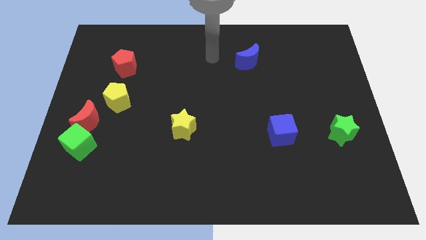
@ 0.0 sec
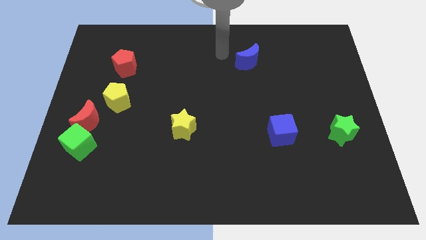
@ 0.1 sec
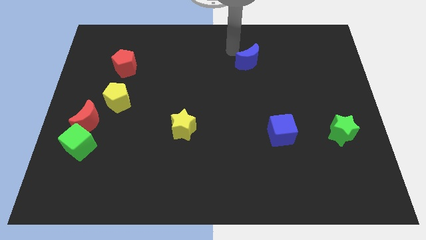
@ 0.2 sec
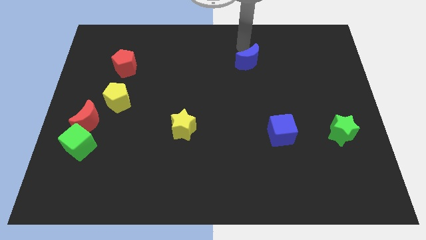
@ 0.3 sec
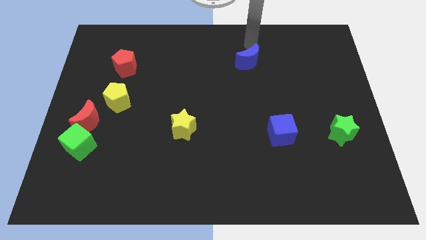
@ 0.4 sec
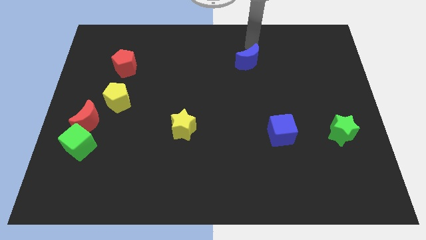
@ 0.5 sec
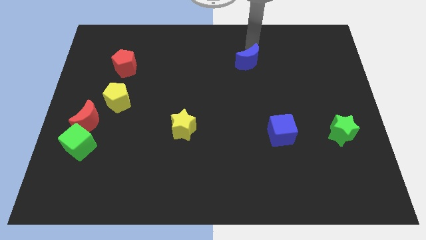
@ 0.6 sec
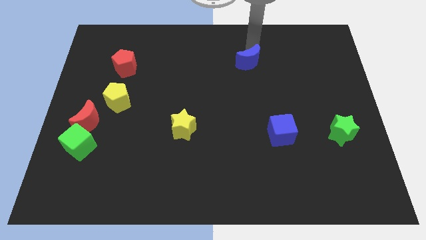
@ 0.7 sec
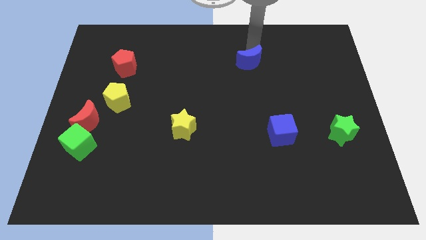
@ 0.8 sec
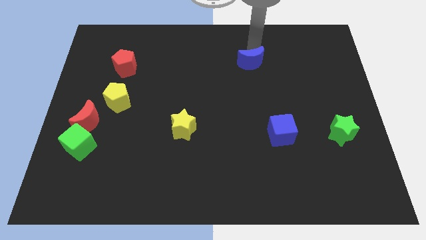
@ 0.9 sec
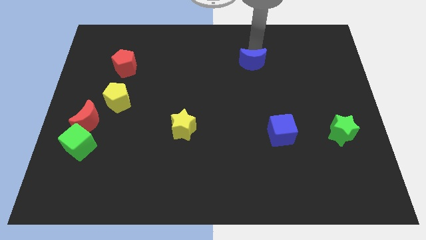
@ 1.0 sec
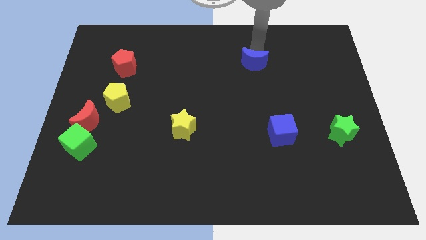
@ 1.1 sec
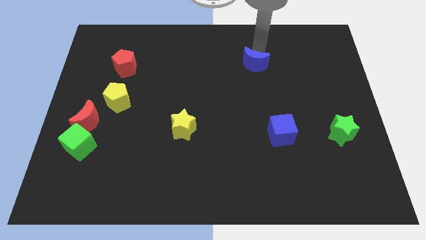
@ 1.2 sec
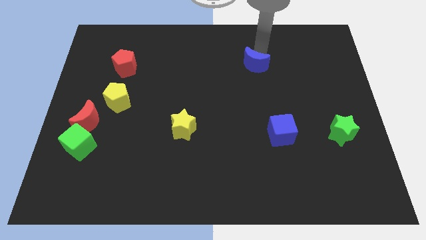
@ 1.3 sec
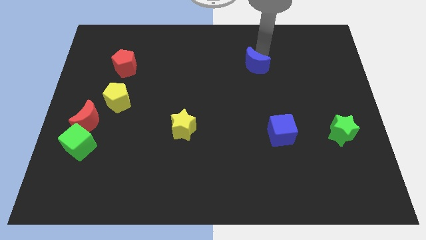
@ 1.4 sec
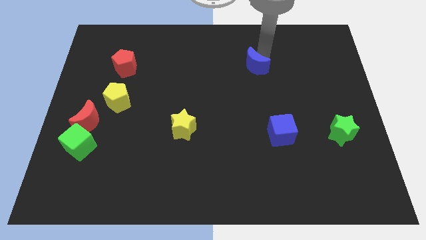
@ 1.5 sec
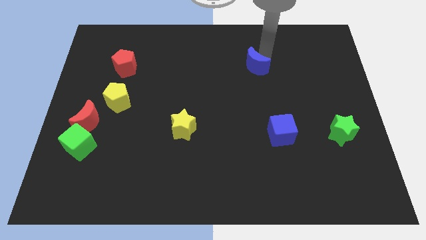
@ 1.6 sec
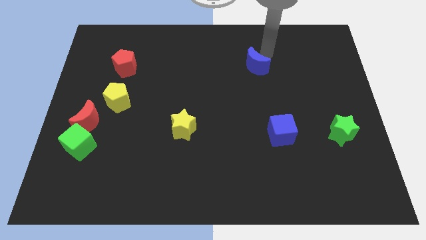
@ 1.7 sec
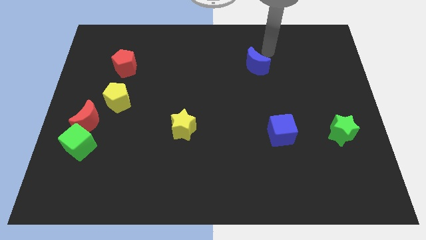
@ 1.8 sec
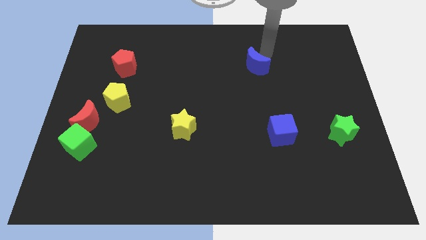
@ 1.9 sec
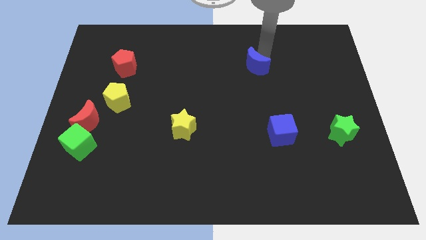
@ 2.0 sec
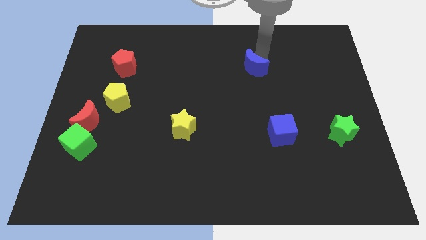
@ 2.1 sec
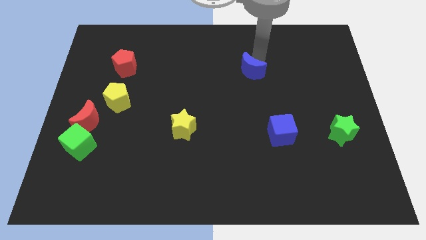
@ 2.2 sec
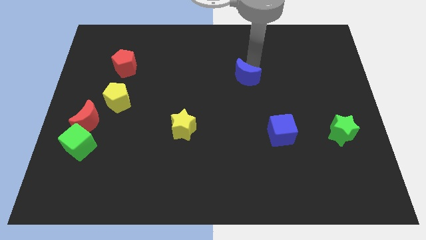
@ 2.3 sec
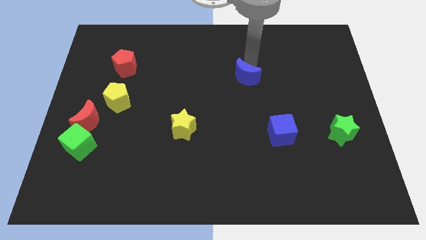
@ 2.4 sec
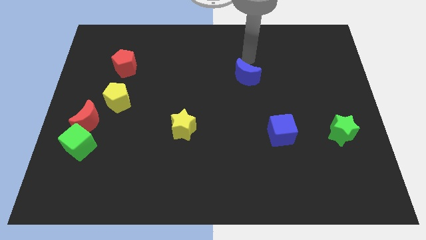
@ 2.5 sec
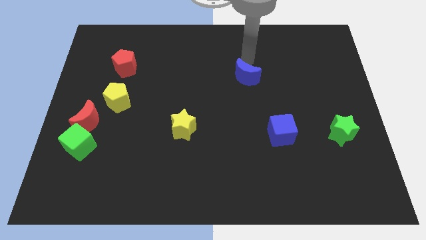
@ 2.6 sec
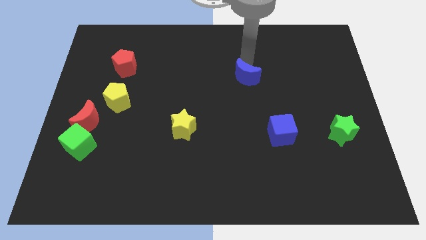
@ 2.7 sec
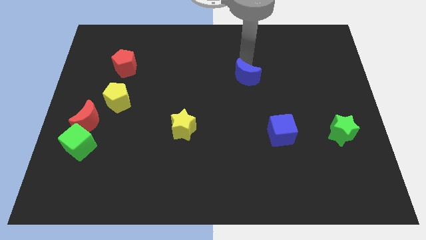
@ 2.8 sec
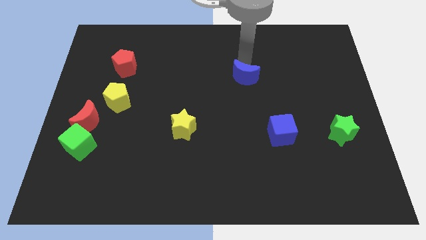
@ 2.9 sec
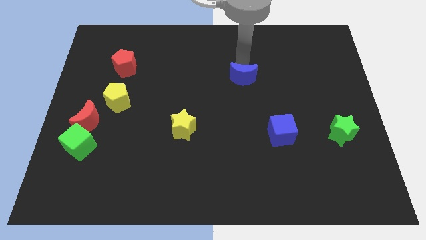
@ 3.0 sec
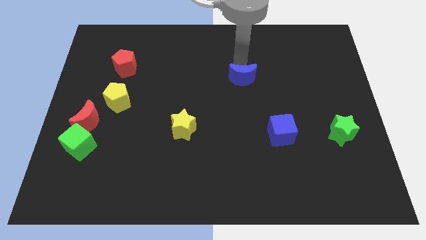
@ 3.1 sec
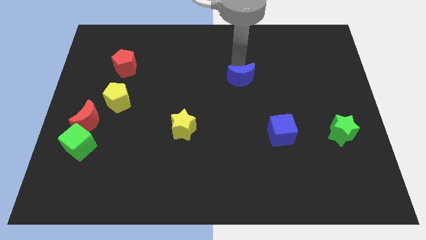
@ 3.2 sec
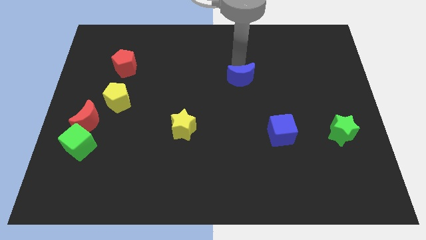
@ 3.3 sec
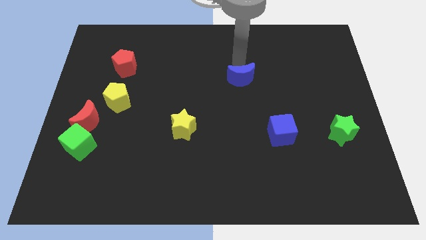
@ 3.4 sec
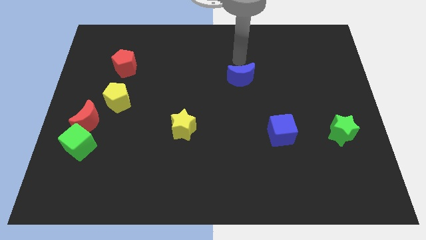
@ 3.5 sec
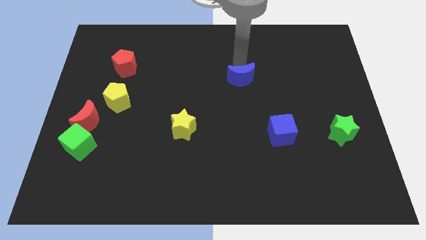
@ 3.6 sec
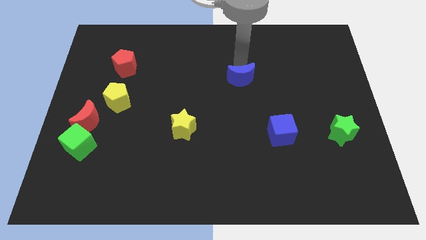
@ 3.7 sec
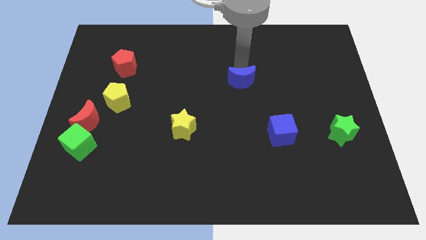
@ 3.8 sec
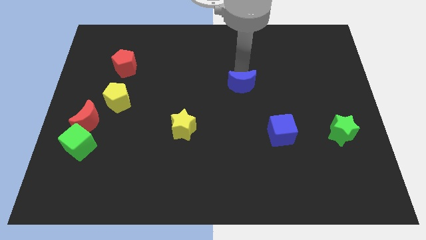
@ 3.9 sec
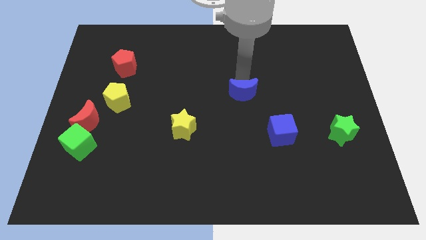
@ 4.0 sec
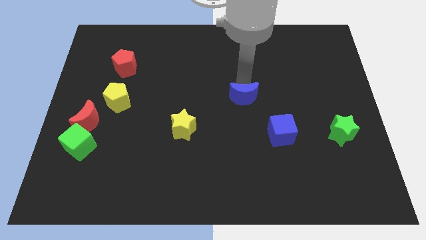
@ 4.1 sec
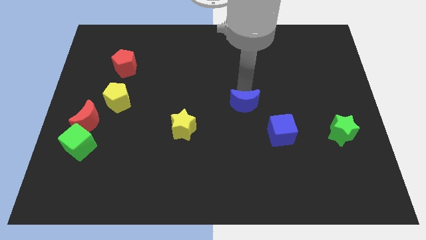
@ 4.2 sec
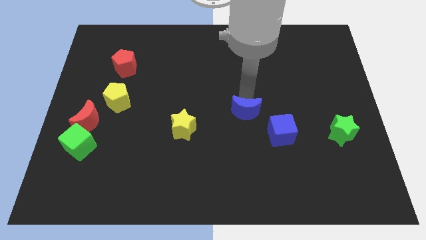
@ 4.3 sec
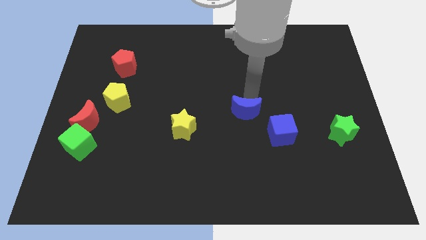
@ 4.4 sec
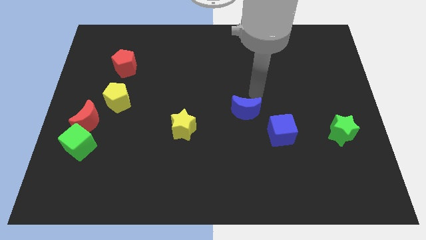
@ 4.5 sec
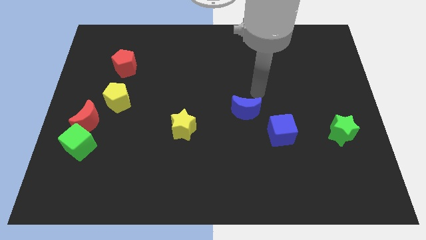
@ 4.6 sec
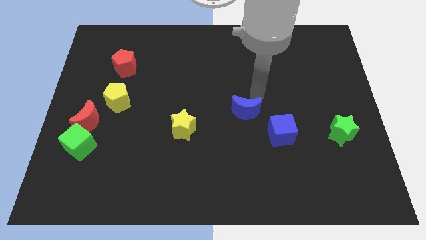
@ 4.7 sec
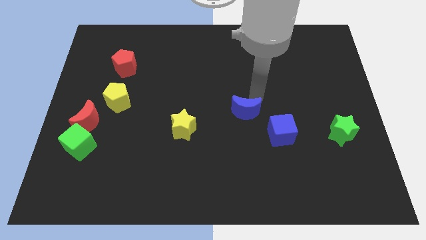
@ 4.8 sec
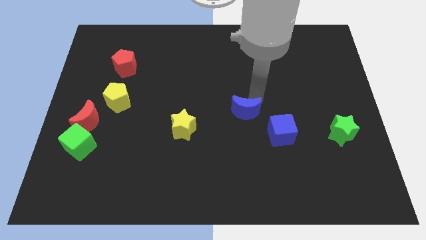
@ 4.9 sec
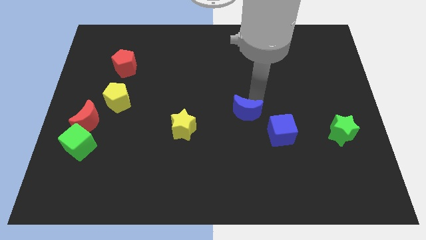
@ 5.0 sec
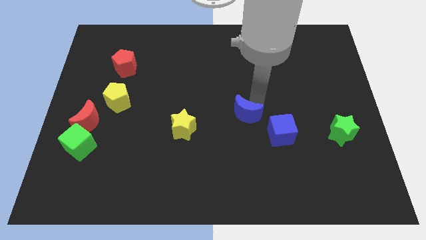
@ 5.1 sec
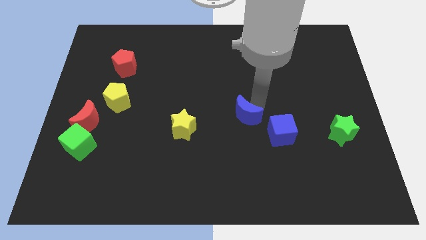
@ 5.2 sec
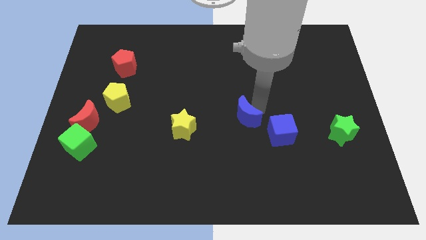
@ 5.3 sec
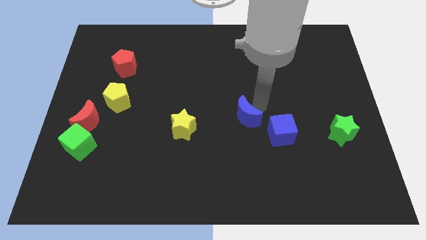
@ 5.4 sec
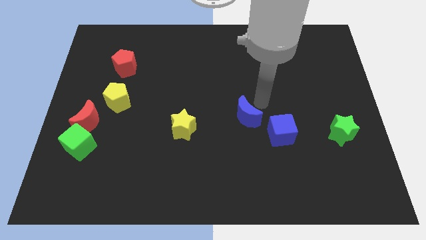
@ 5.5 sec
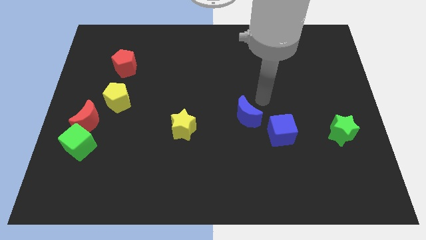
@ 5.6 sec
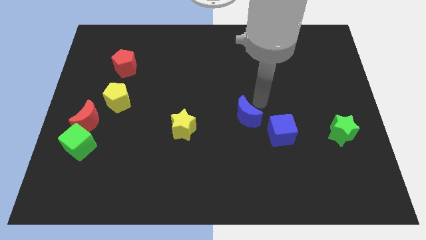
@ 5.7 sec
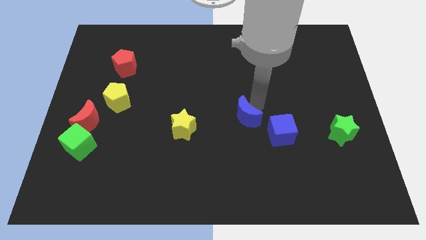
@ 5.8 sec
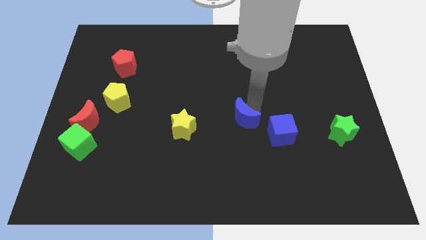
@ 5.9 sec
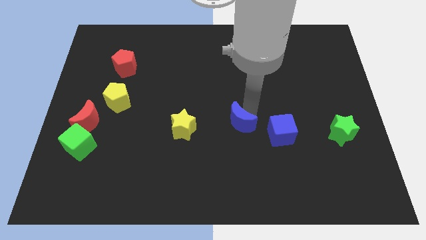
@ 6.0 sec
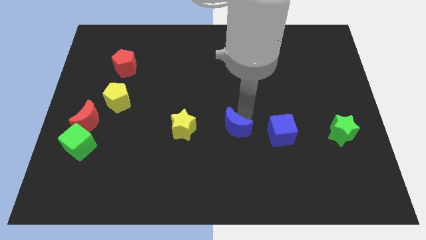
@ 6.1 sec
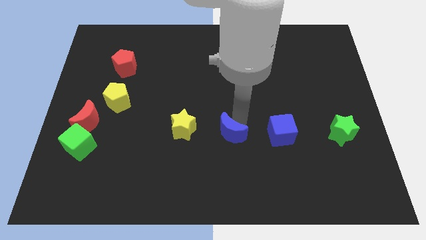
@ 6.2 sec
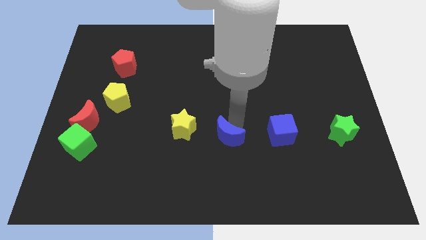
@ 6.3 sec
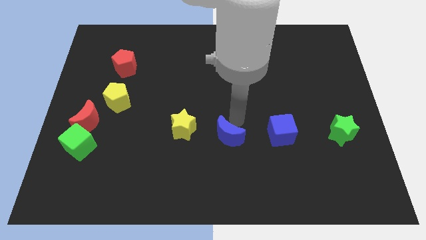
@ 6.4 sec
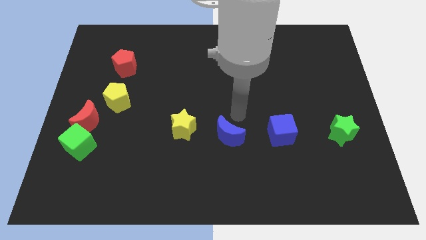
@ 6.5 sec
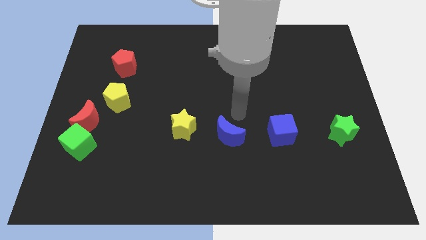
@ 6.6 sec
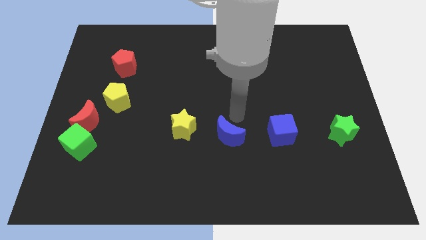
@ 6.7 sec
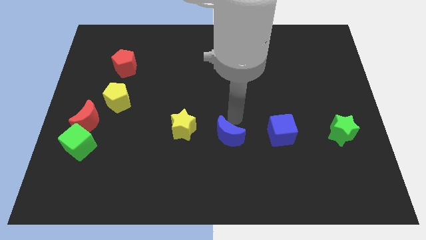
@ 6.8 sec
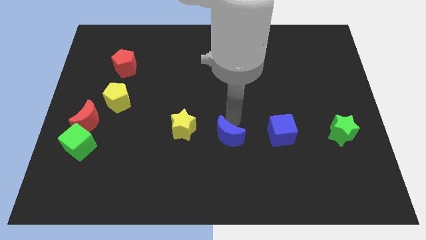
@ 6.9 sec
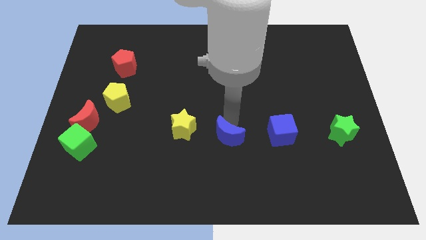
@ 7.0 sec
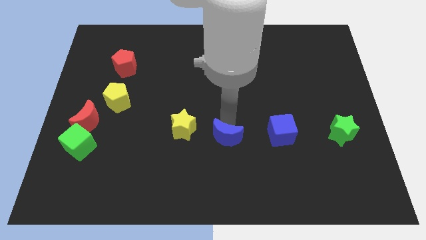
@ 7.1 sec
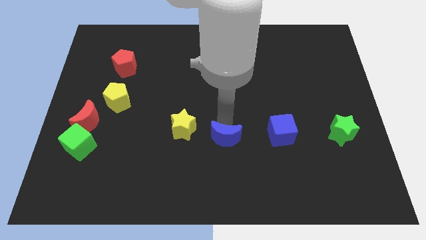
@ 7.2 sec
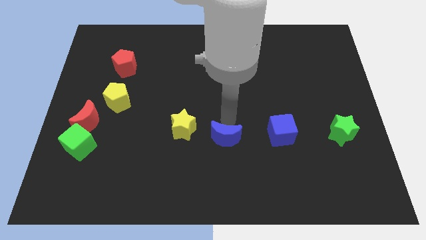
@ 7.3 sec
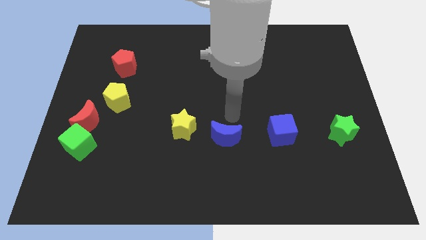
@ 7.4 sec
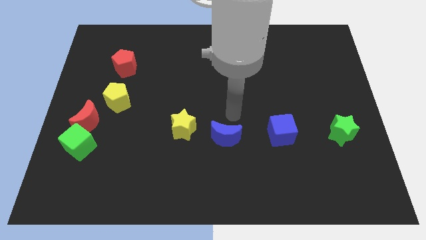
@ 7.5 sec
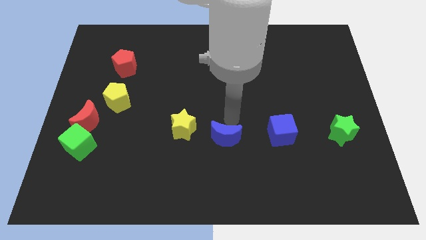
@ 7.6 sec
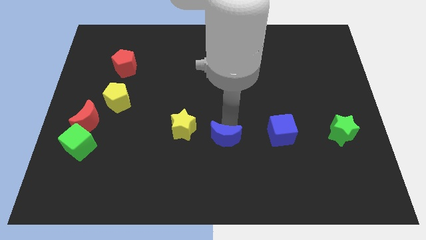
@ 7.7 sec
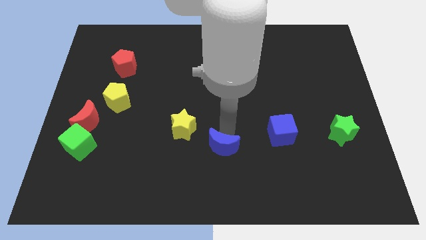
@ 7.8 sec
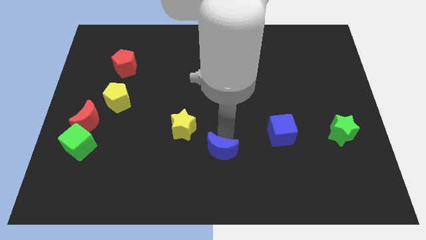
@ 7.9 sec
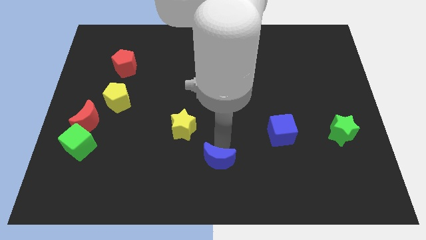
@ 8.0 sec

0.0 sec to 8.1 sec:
push the blue moon to the bottom
